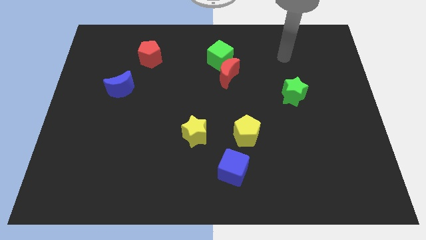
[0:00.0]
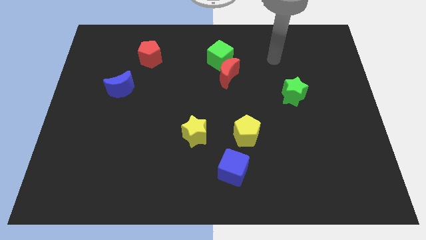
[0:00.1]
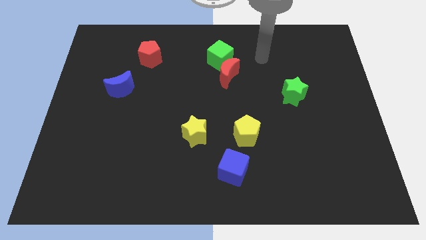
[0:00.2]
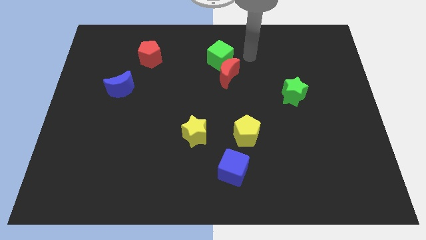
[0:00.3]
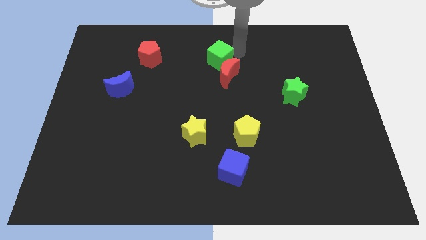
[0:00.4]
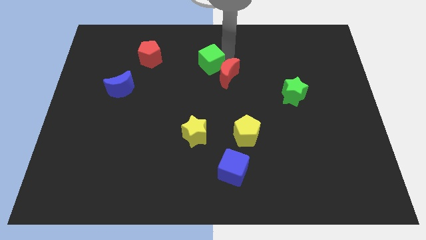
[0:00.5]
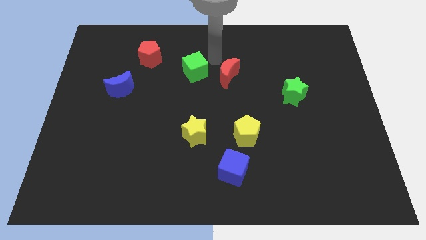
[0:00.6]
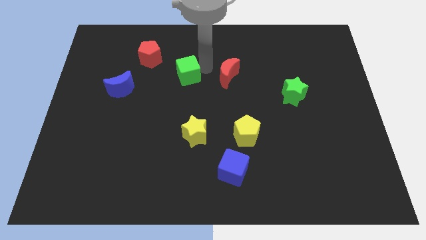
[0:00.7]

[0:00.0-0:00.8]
separate the red moon from the green cube

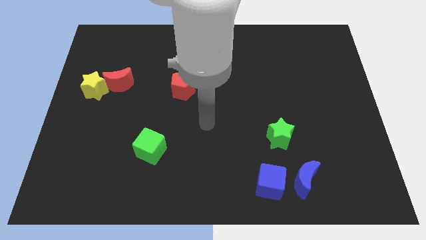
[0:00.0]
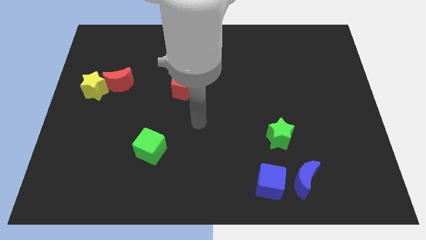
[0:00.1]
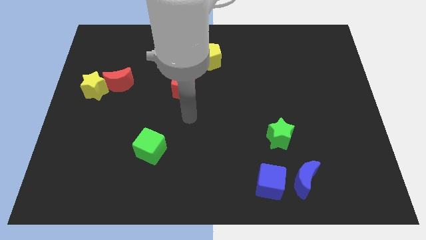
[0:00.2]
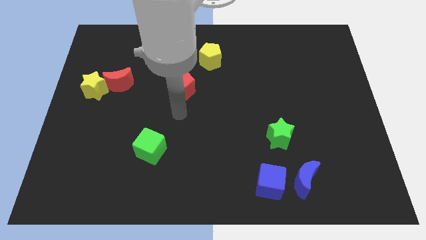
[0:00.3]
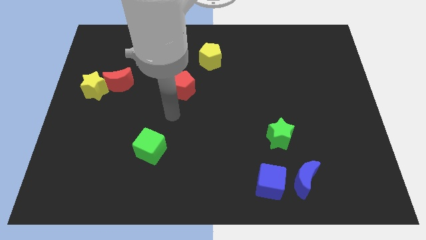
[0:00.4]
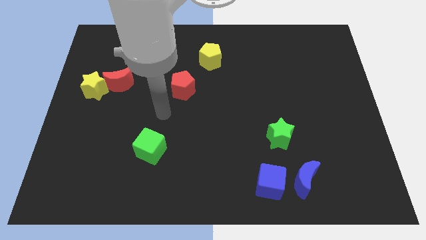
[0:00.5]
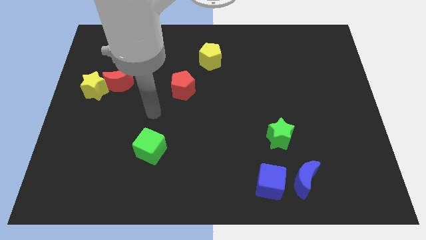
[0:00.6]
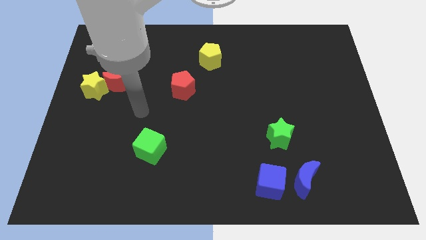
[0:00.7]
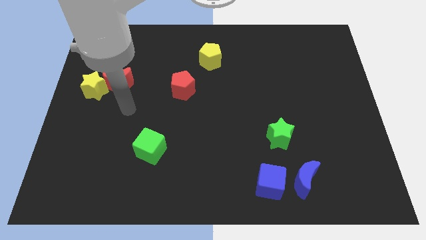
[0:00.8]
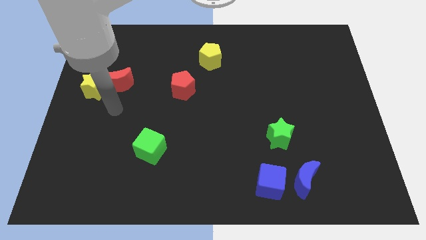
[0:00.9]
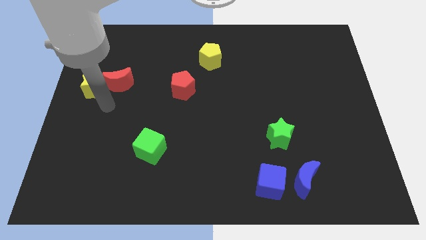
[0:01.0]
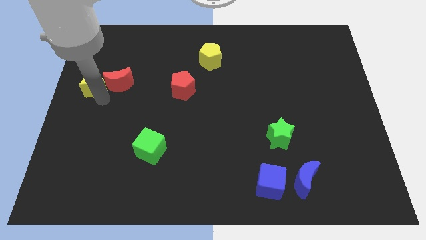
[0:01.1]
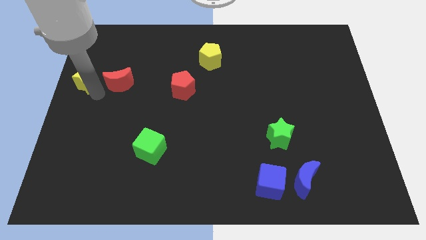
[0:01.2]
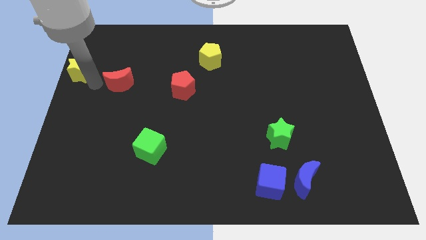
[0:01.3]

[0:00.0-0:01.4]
move the red moon away from the yellow star

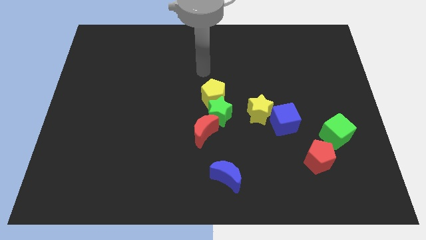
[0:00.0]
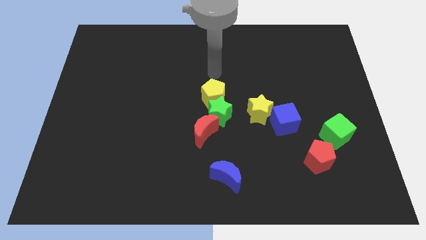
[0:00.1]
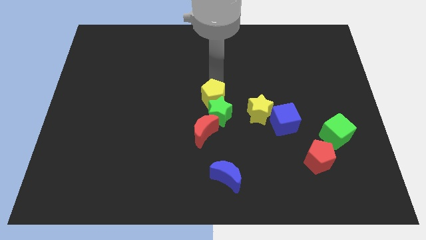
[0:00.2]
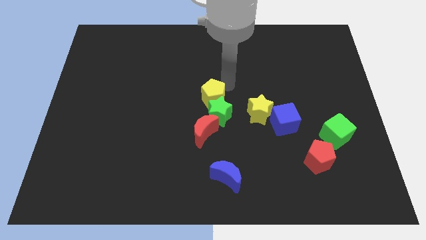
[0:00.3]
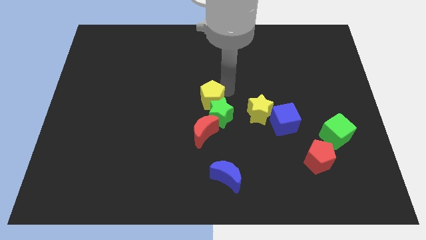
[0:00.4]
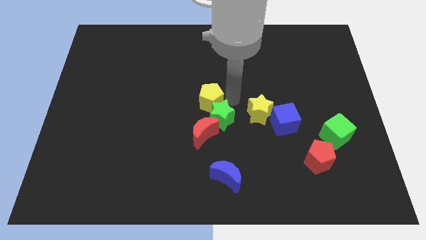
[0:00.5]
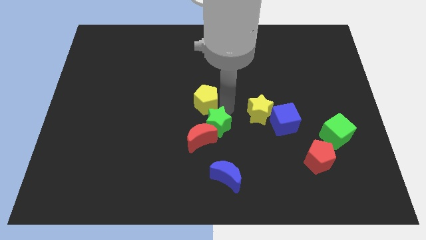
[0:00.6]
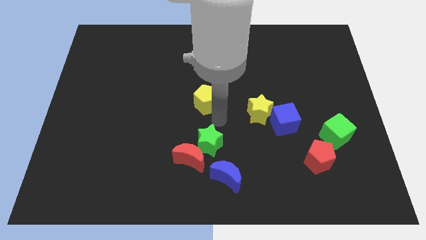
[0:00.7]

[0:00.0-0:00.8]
move the yellow pentagon away from the green star

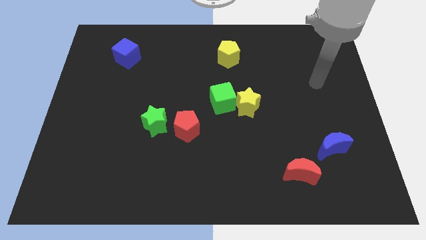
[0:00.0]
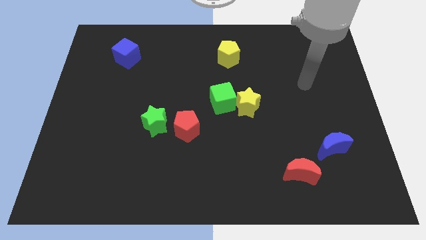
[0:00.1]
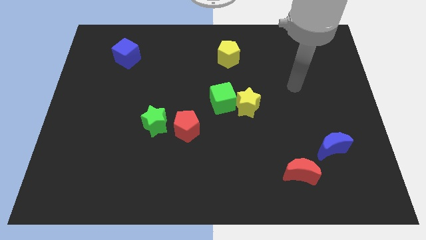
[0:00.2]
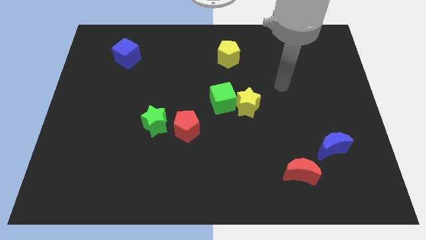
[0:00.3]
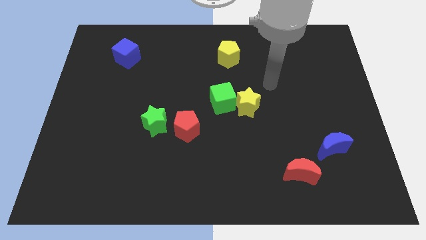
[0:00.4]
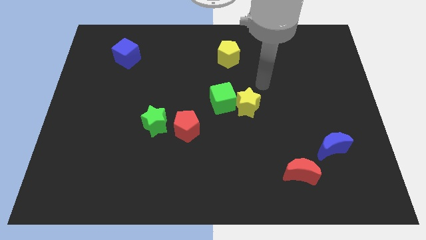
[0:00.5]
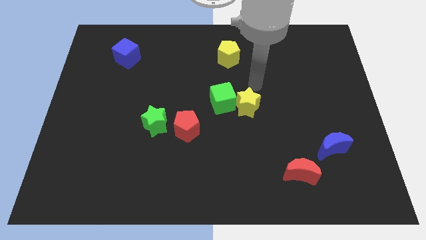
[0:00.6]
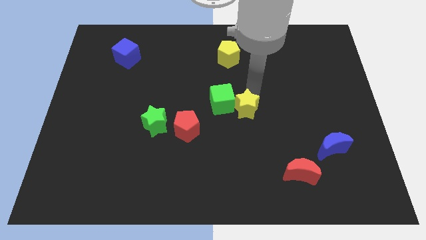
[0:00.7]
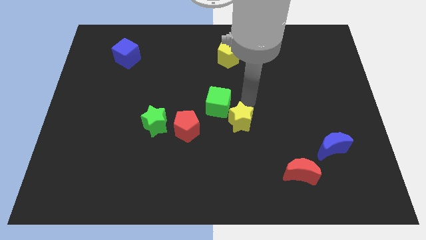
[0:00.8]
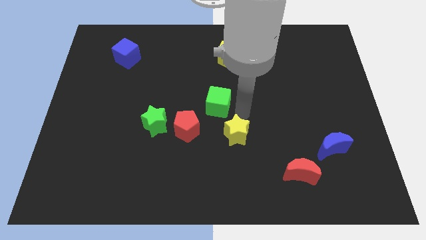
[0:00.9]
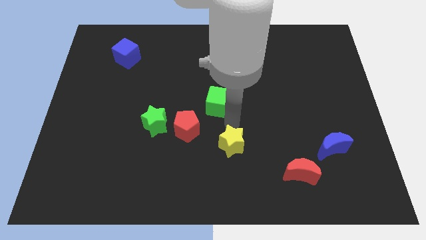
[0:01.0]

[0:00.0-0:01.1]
pull the green cube apart from the yellow star

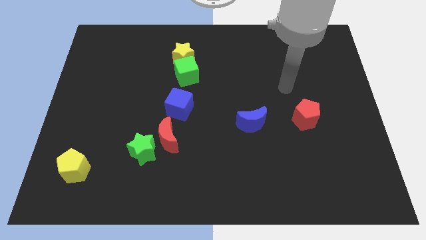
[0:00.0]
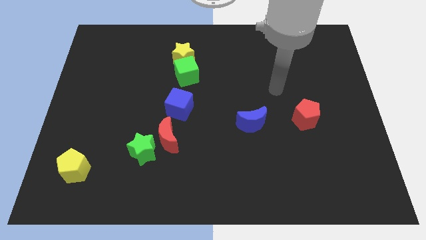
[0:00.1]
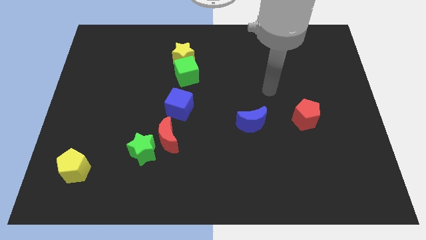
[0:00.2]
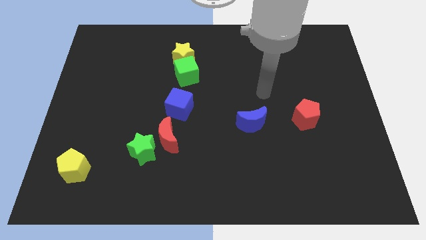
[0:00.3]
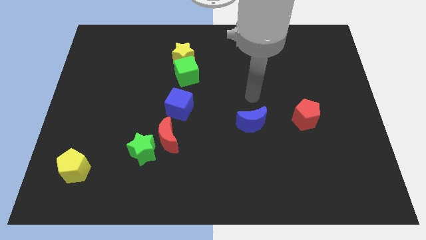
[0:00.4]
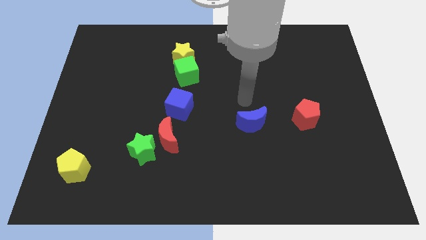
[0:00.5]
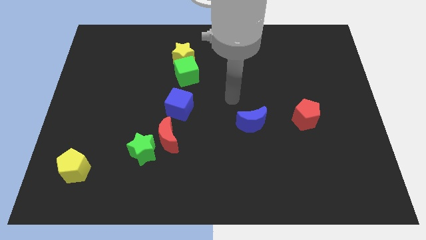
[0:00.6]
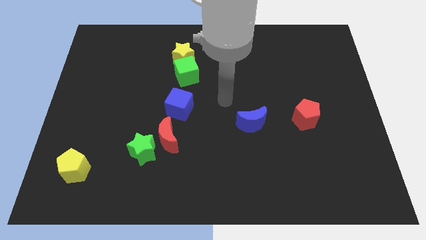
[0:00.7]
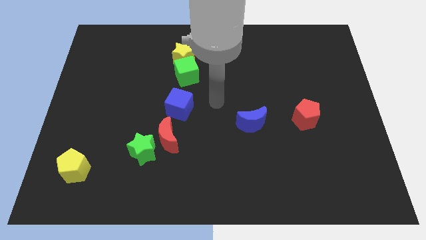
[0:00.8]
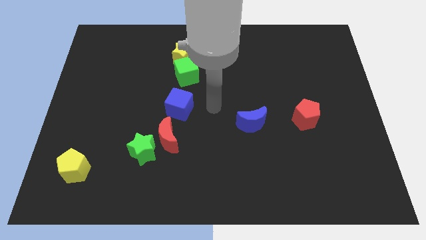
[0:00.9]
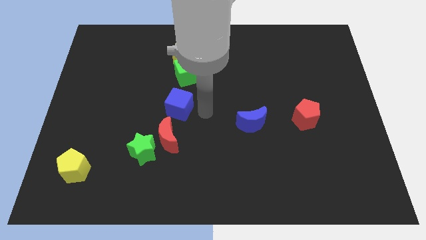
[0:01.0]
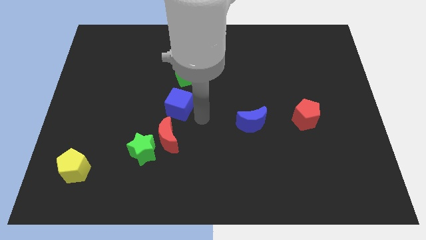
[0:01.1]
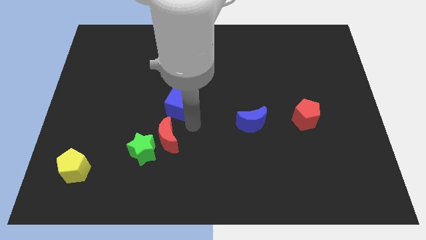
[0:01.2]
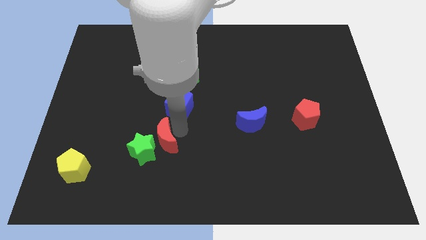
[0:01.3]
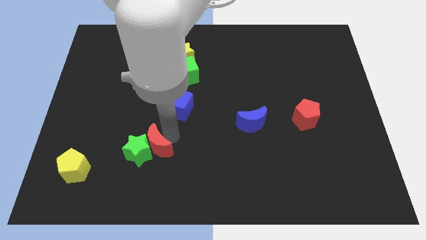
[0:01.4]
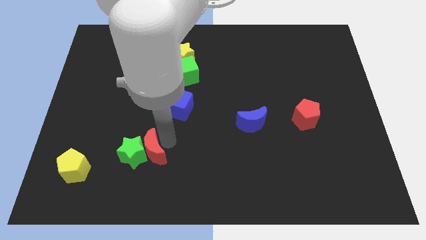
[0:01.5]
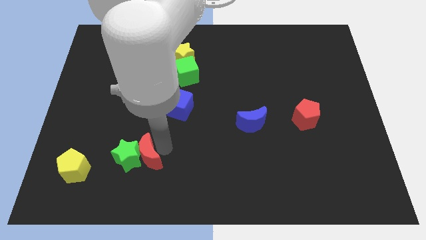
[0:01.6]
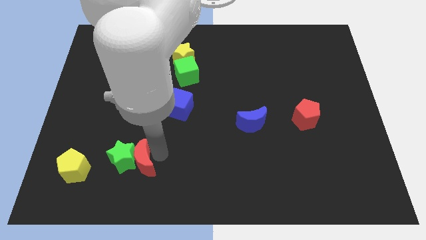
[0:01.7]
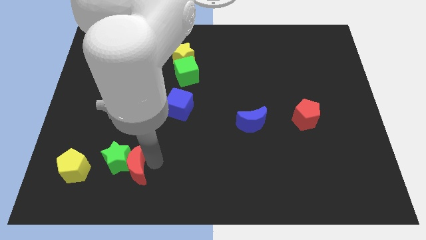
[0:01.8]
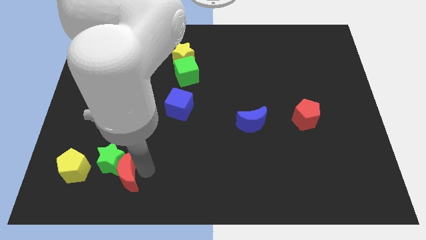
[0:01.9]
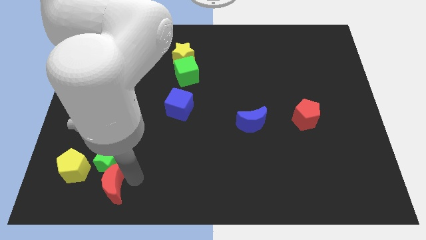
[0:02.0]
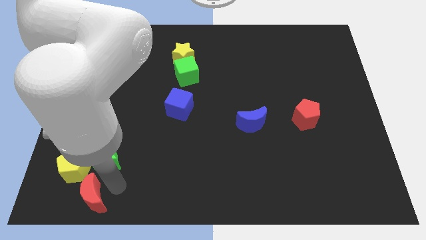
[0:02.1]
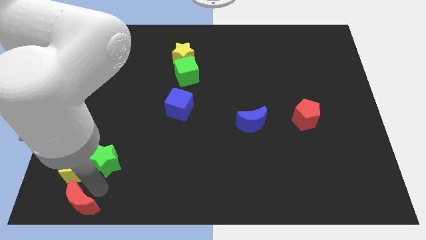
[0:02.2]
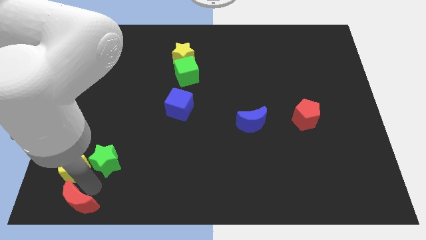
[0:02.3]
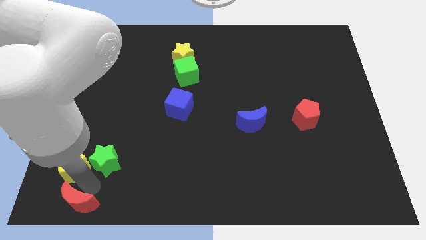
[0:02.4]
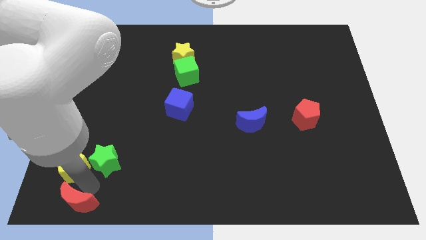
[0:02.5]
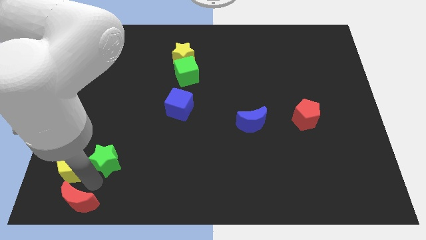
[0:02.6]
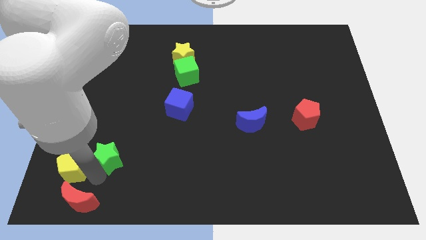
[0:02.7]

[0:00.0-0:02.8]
separate the green star from the red moon

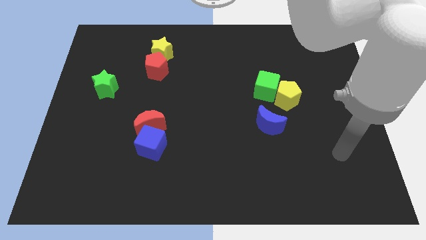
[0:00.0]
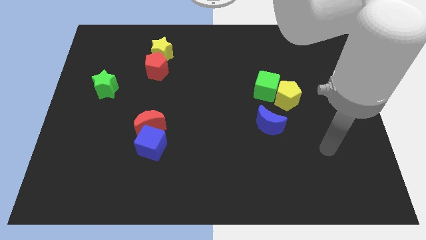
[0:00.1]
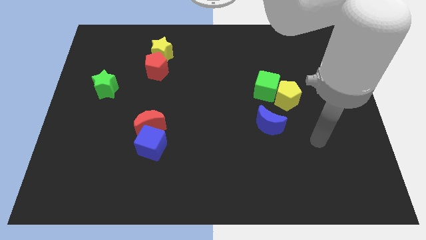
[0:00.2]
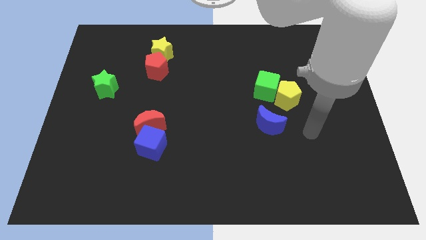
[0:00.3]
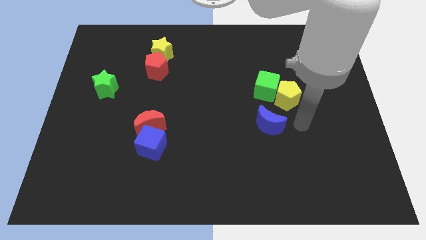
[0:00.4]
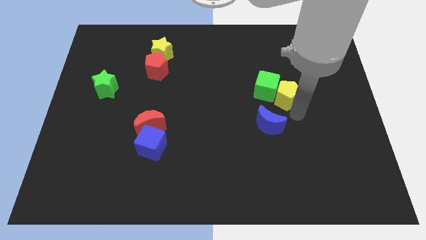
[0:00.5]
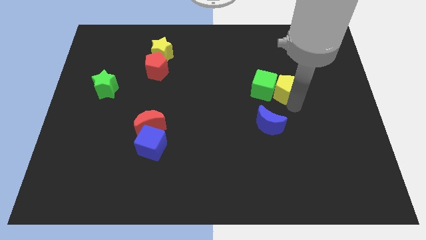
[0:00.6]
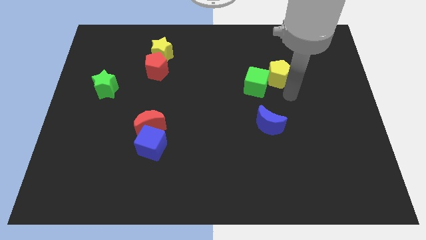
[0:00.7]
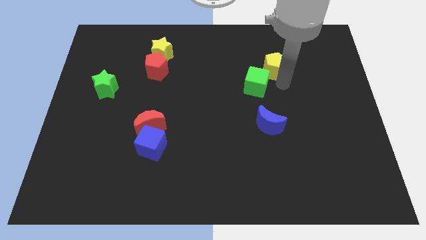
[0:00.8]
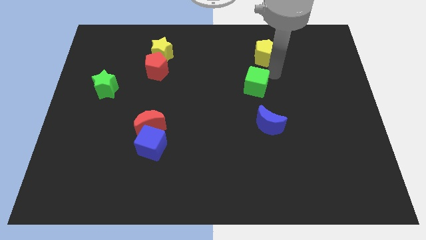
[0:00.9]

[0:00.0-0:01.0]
separate the green cube from the yellow pentagon

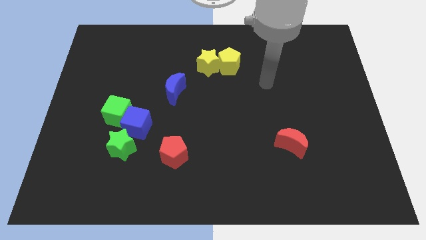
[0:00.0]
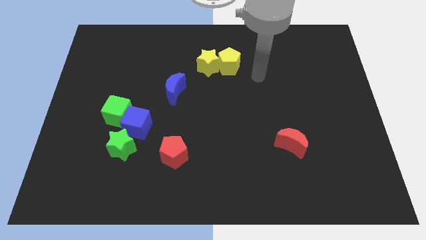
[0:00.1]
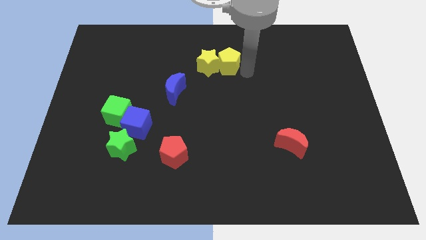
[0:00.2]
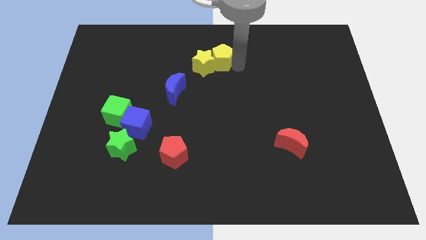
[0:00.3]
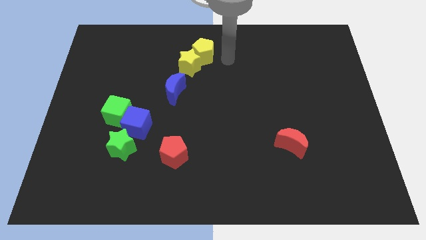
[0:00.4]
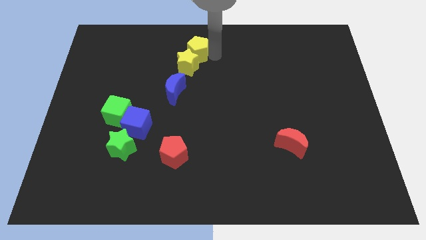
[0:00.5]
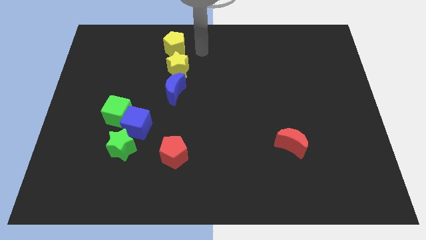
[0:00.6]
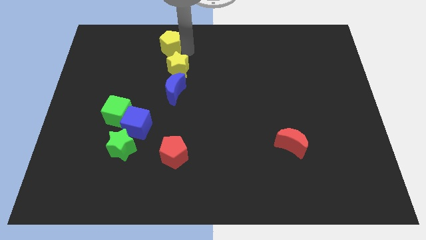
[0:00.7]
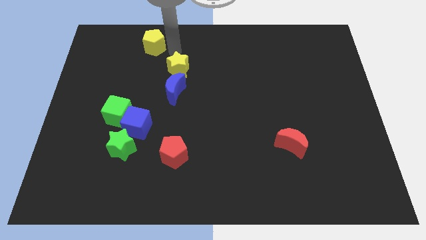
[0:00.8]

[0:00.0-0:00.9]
pull the yellow star apart from the yellow pentagon

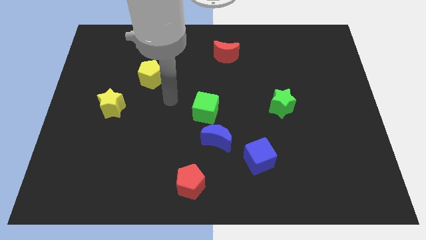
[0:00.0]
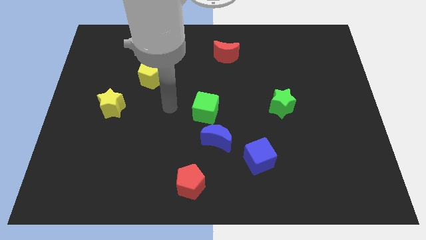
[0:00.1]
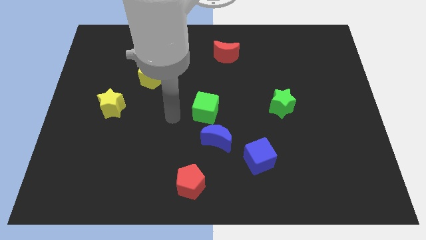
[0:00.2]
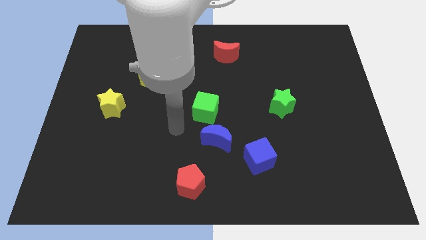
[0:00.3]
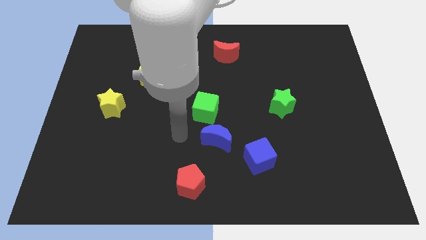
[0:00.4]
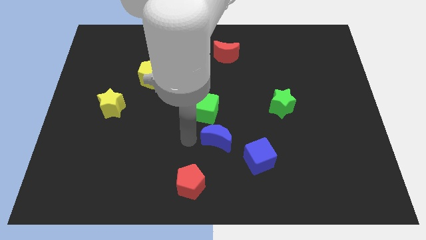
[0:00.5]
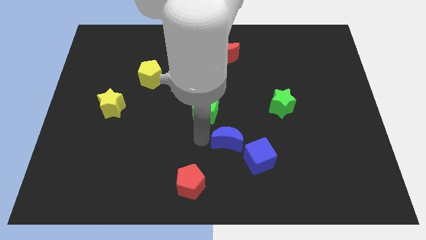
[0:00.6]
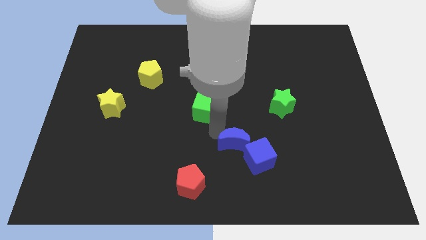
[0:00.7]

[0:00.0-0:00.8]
move the green cube away from the blue moon
